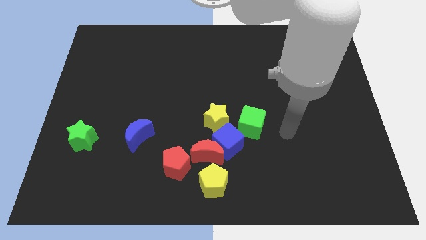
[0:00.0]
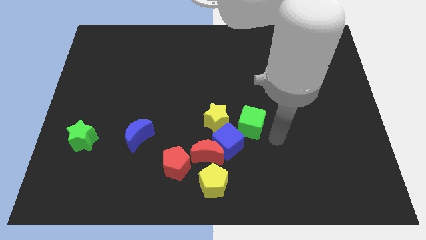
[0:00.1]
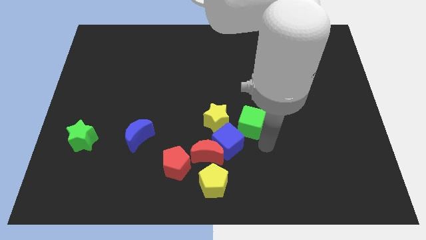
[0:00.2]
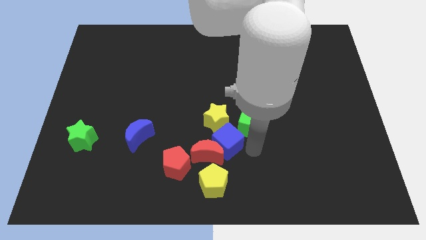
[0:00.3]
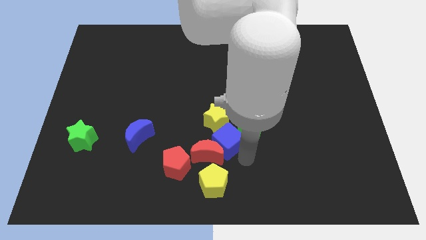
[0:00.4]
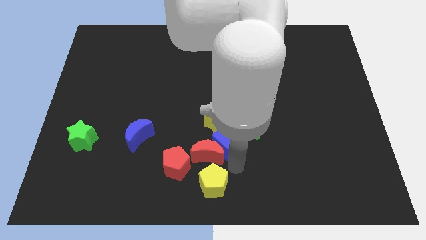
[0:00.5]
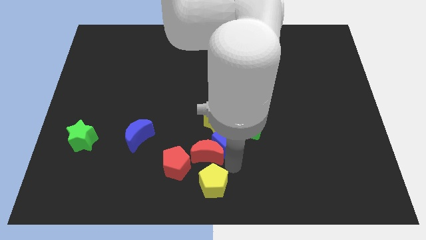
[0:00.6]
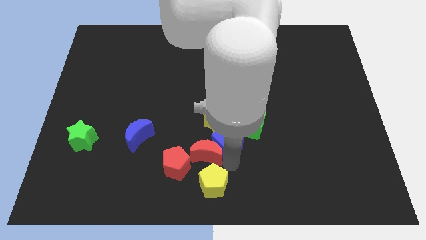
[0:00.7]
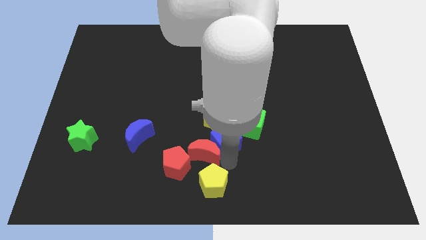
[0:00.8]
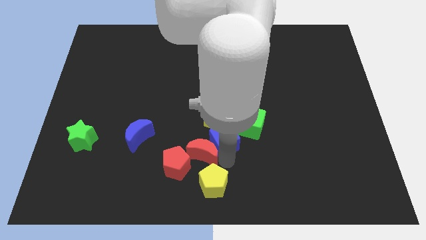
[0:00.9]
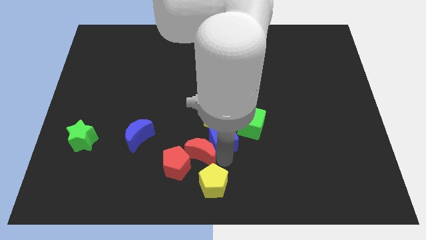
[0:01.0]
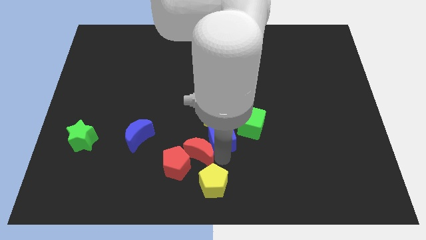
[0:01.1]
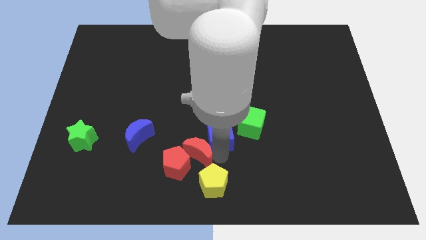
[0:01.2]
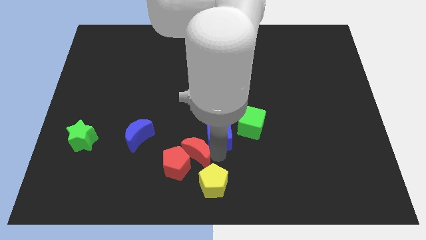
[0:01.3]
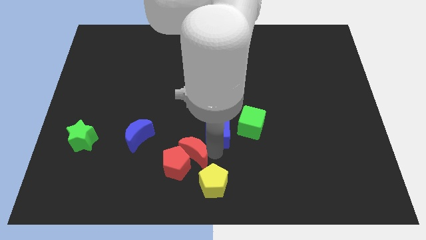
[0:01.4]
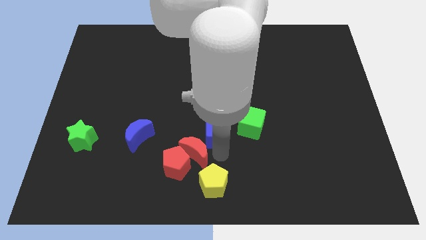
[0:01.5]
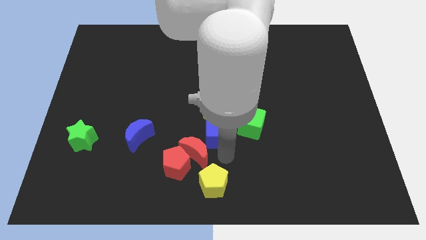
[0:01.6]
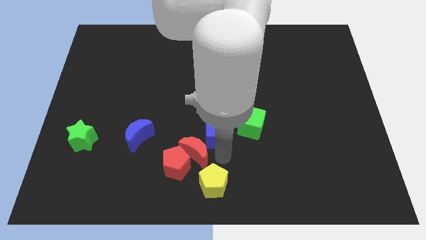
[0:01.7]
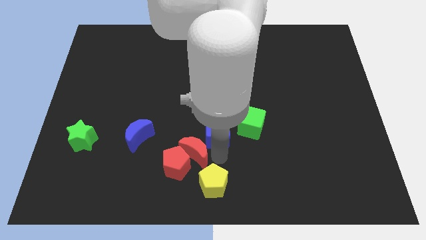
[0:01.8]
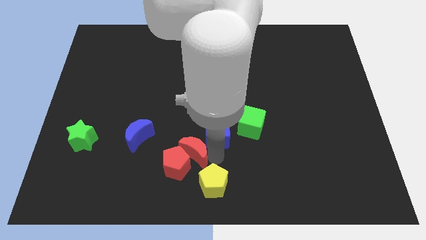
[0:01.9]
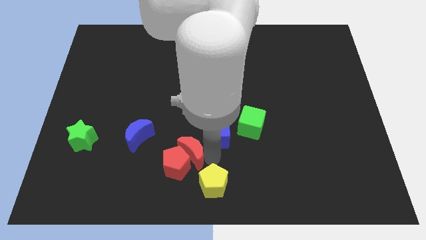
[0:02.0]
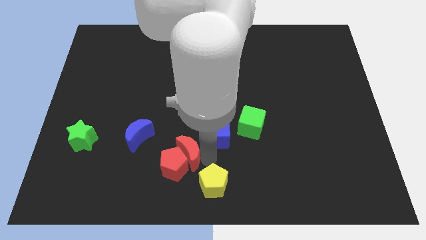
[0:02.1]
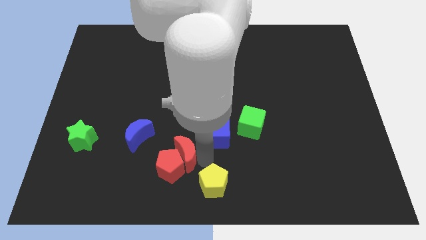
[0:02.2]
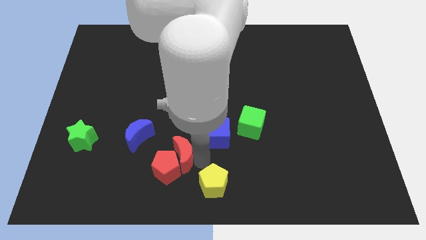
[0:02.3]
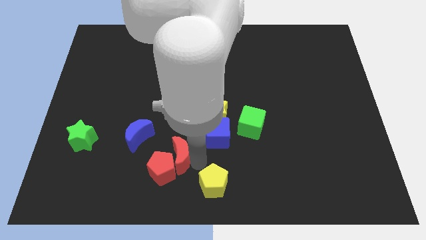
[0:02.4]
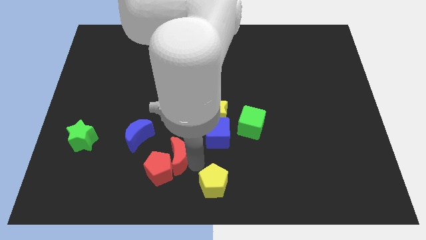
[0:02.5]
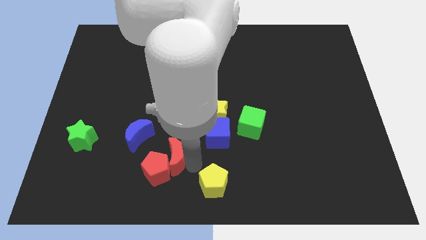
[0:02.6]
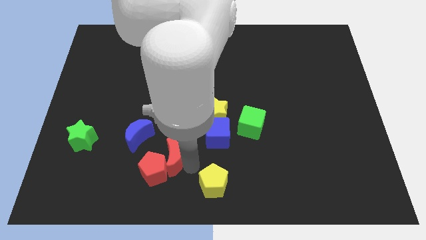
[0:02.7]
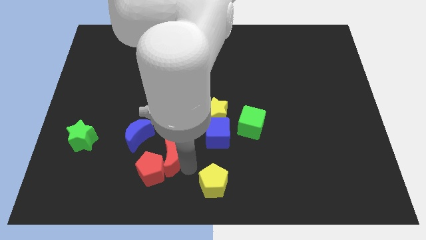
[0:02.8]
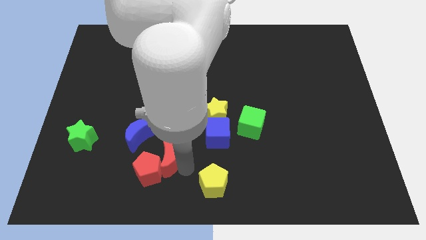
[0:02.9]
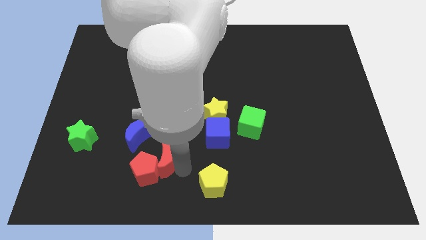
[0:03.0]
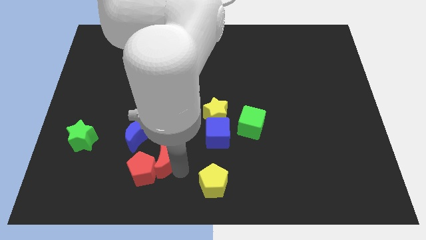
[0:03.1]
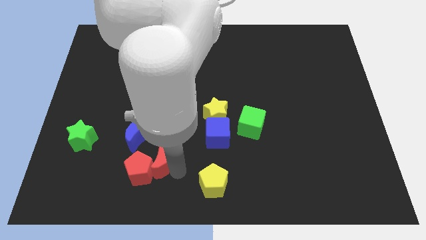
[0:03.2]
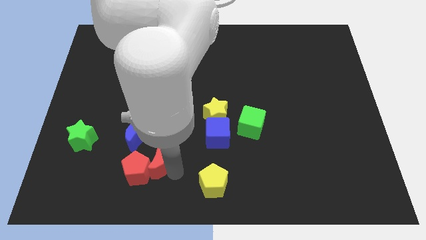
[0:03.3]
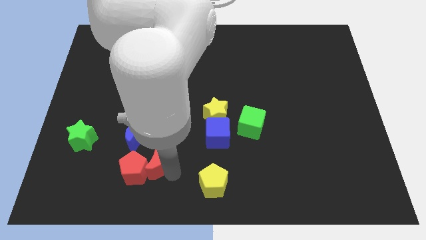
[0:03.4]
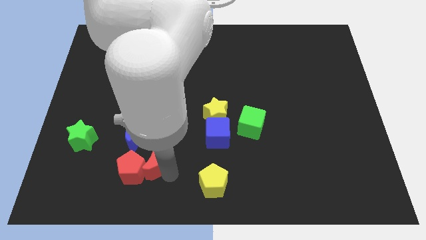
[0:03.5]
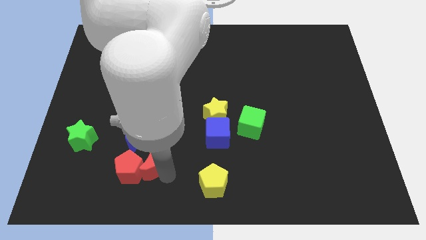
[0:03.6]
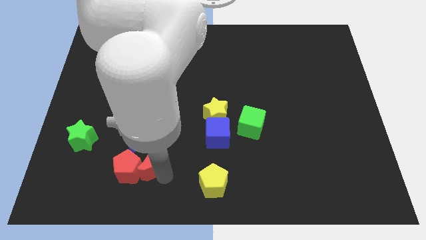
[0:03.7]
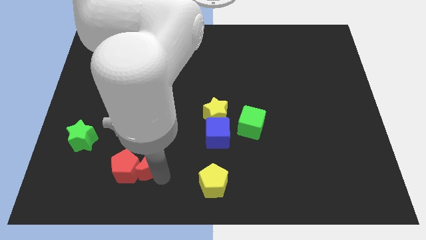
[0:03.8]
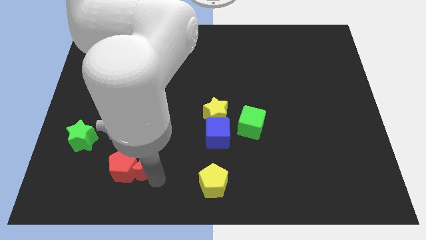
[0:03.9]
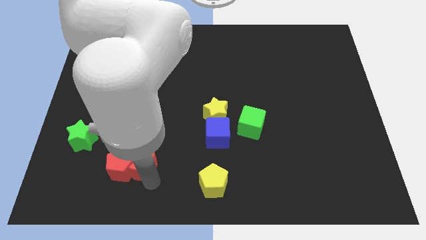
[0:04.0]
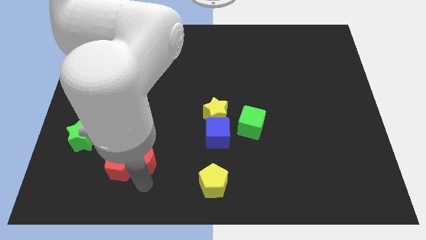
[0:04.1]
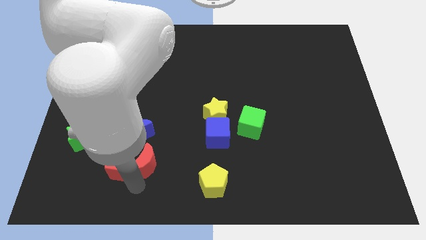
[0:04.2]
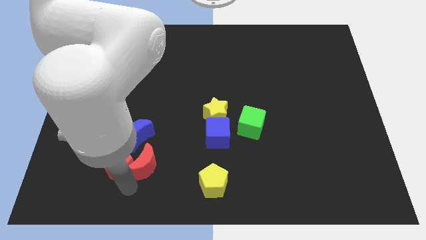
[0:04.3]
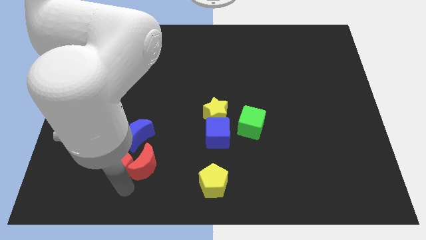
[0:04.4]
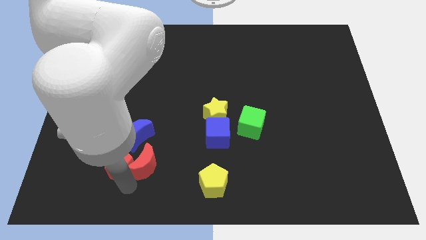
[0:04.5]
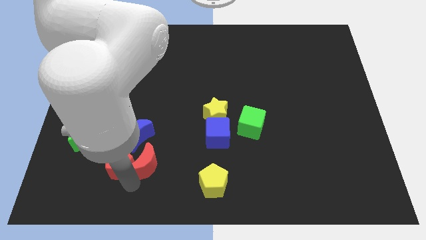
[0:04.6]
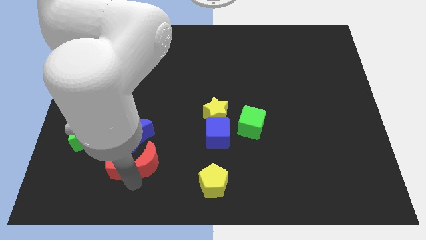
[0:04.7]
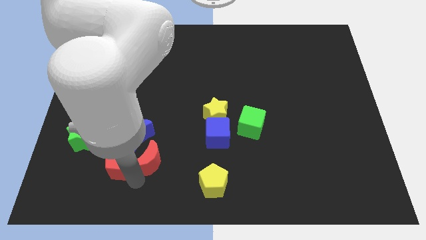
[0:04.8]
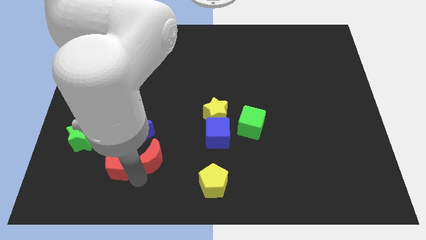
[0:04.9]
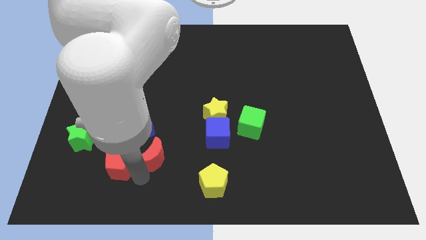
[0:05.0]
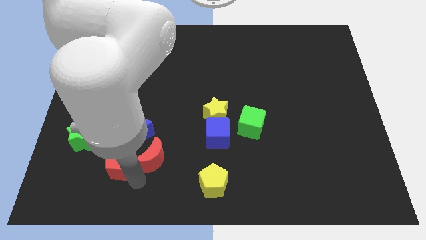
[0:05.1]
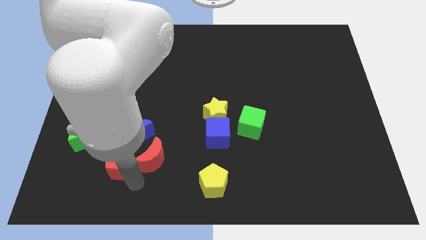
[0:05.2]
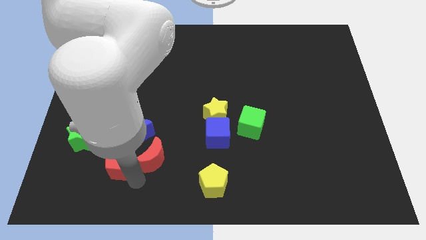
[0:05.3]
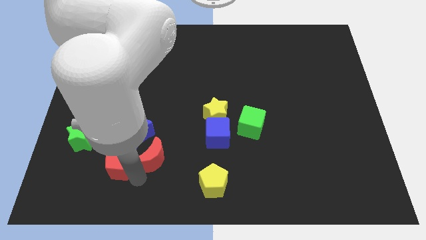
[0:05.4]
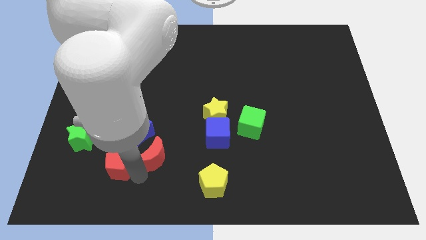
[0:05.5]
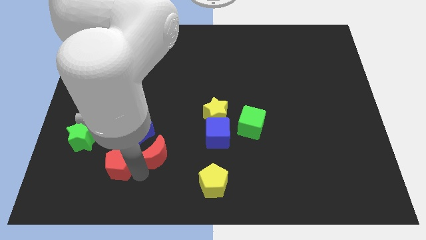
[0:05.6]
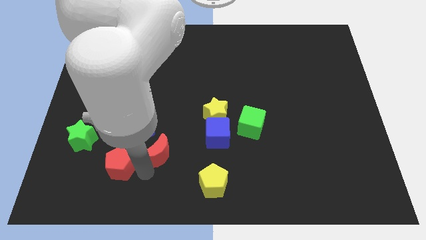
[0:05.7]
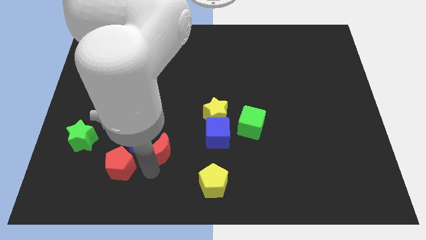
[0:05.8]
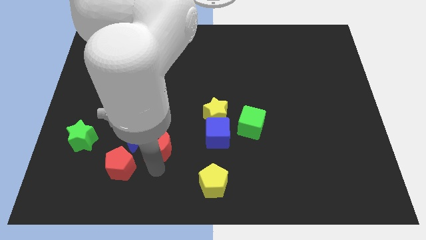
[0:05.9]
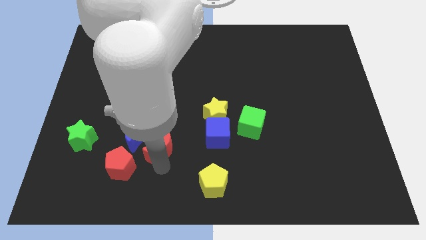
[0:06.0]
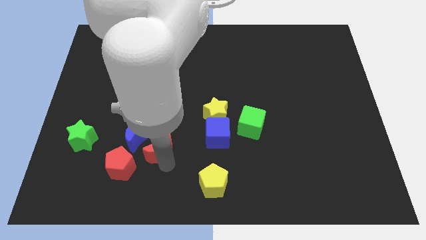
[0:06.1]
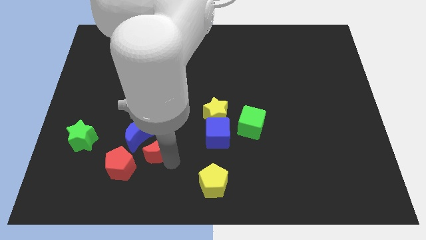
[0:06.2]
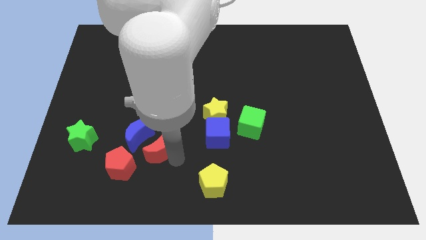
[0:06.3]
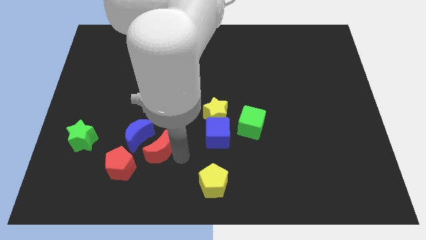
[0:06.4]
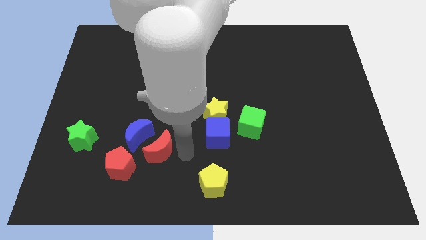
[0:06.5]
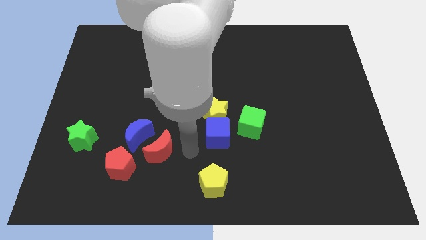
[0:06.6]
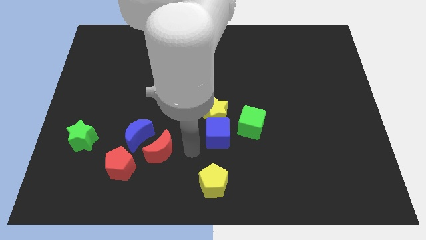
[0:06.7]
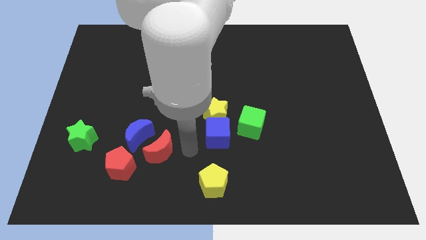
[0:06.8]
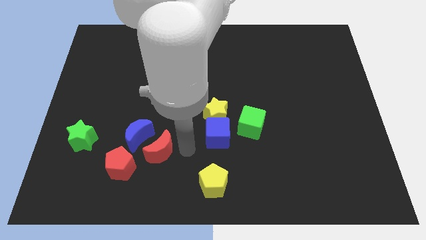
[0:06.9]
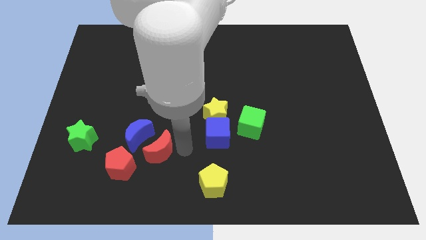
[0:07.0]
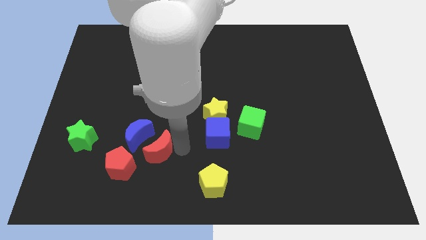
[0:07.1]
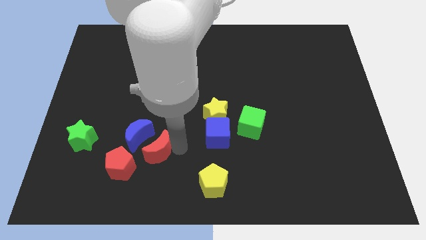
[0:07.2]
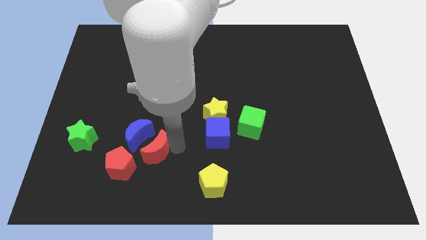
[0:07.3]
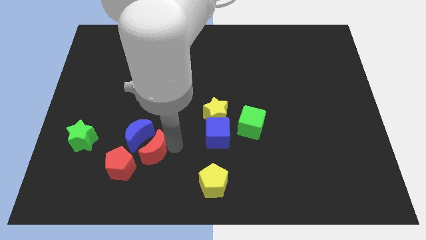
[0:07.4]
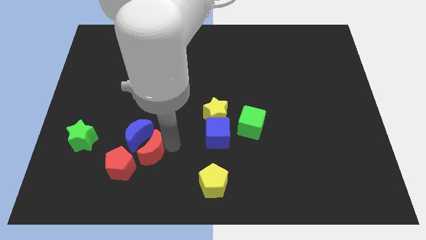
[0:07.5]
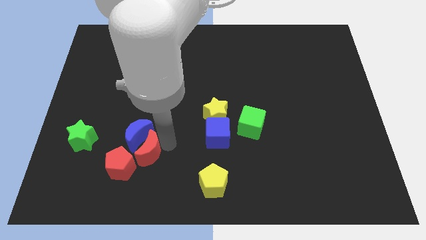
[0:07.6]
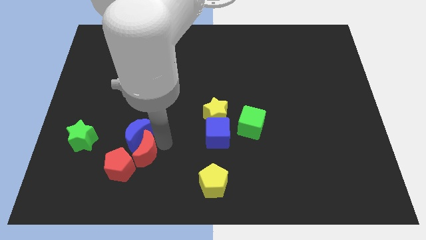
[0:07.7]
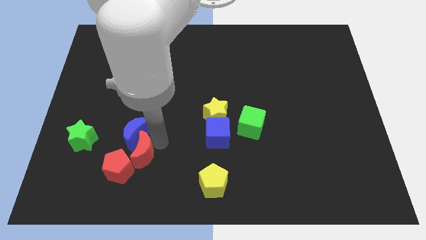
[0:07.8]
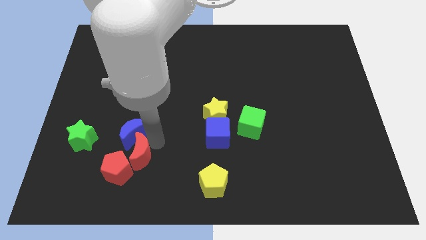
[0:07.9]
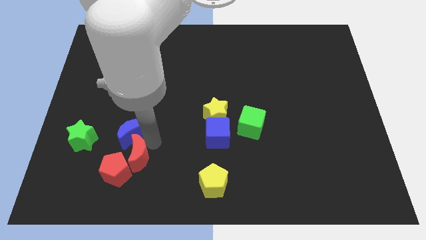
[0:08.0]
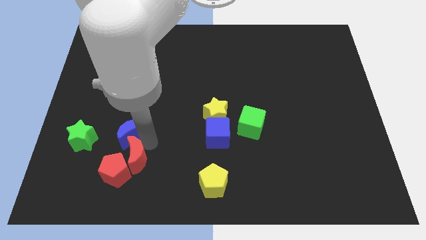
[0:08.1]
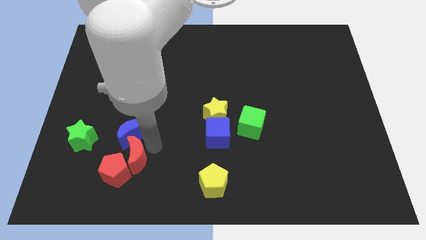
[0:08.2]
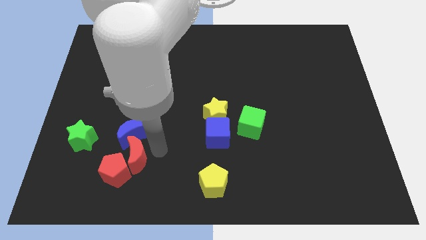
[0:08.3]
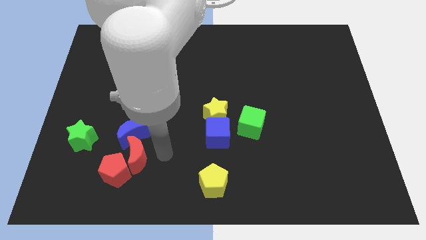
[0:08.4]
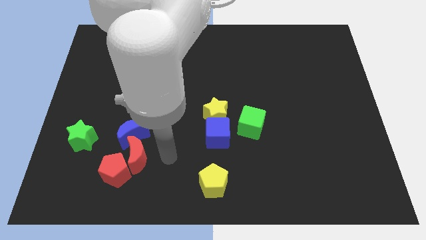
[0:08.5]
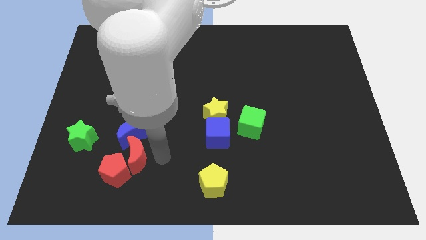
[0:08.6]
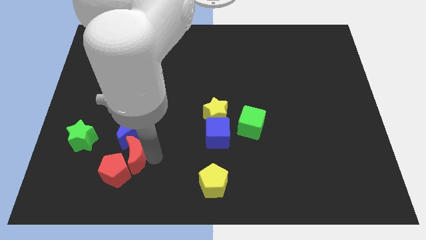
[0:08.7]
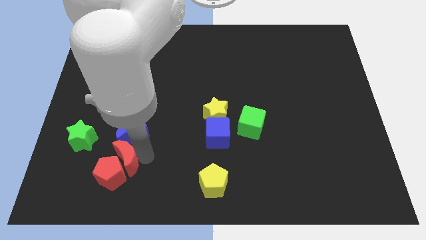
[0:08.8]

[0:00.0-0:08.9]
slide the red moon to the bottom left side of the blue moon
